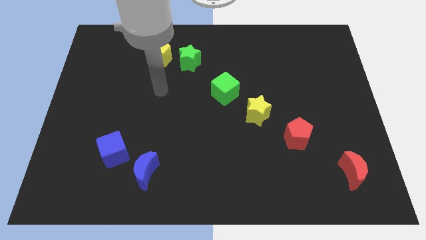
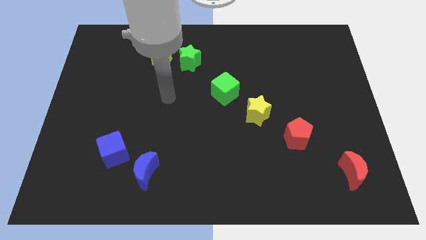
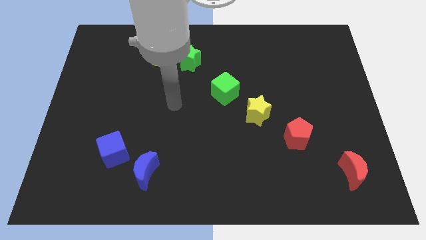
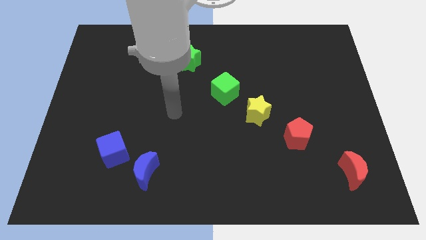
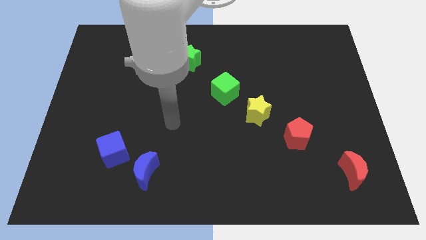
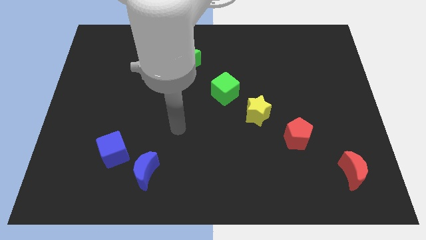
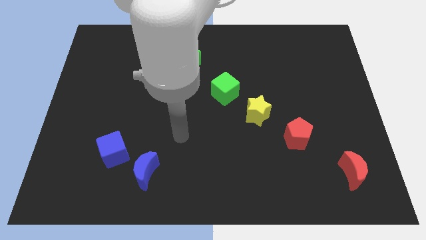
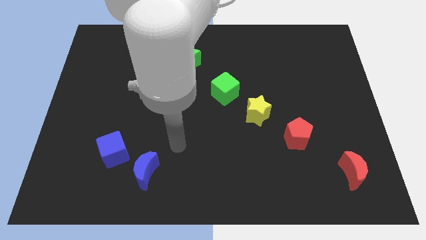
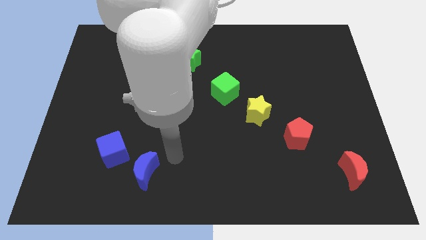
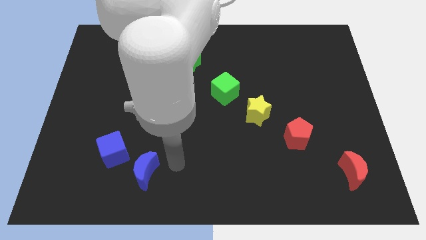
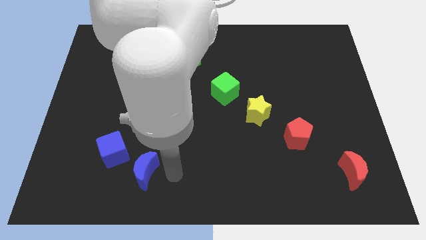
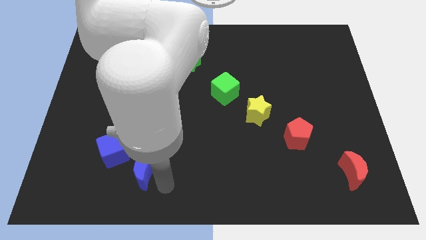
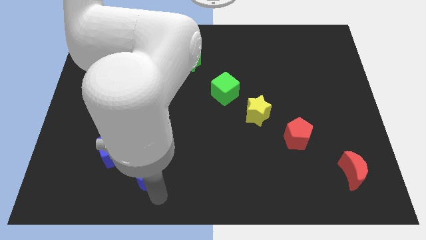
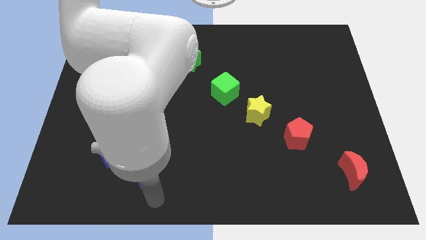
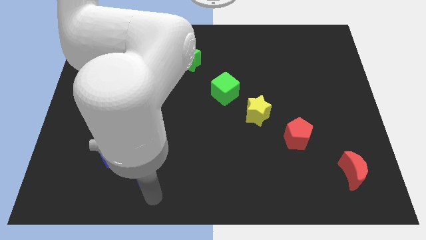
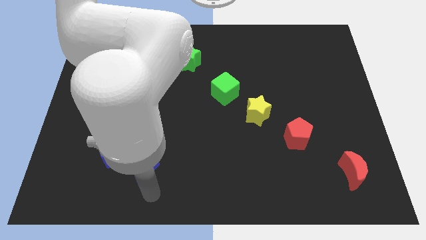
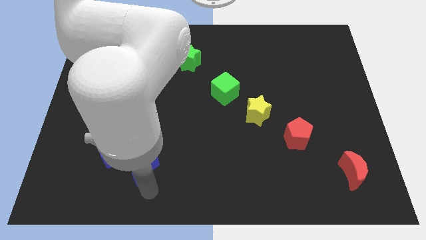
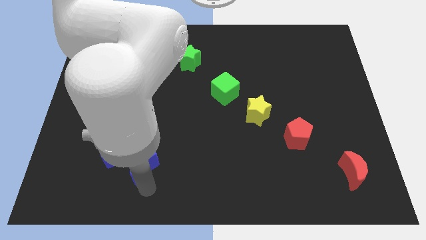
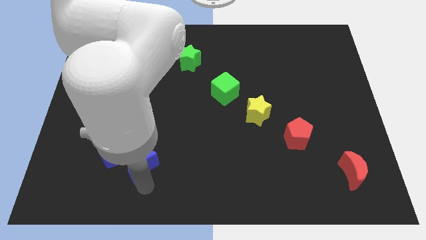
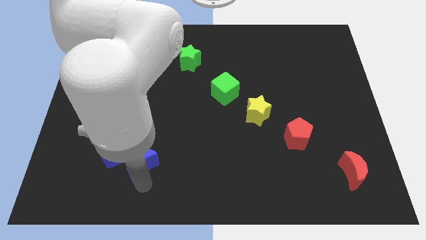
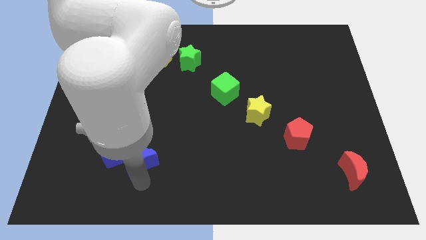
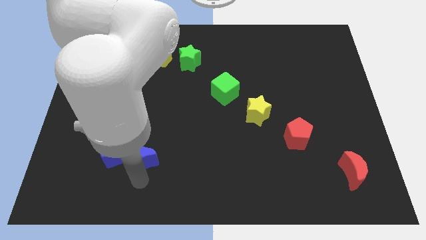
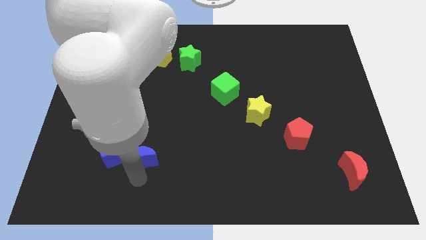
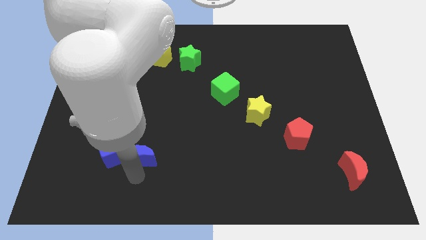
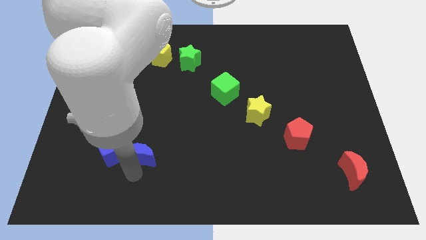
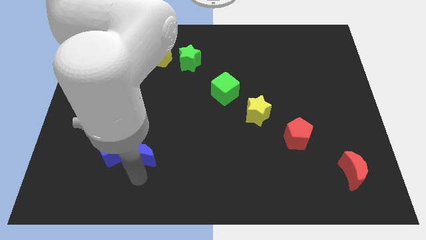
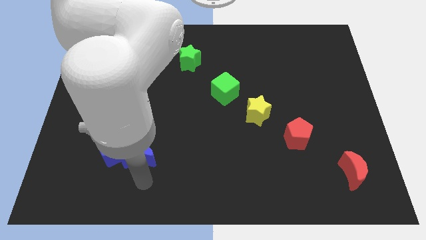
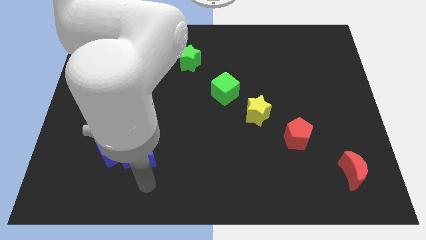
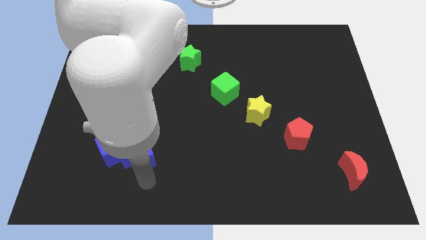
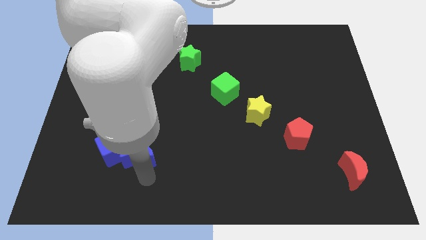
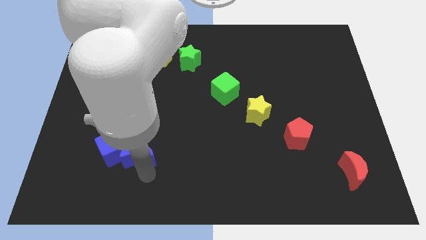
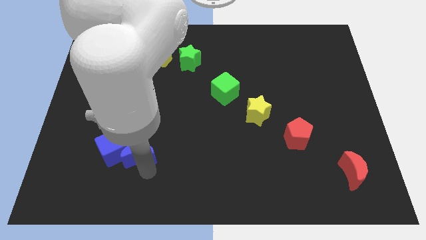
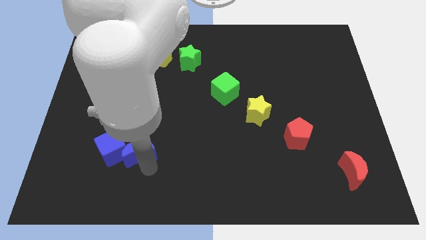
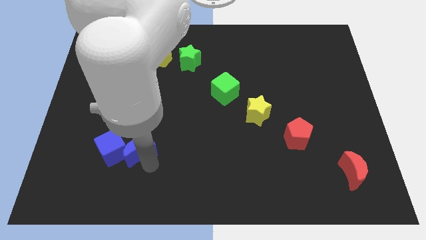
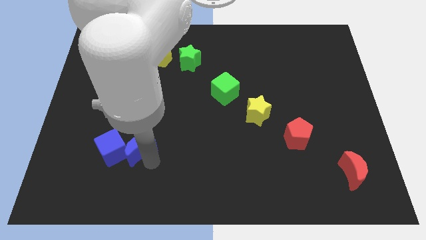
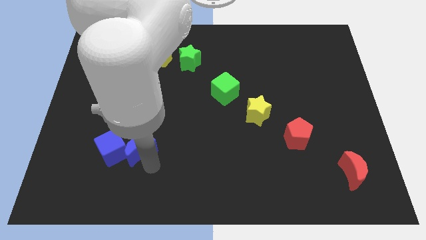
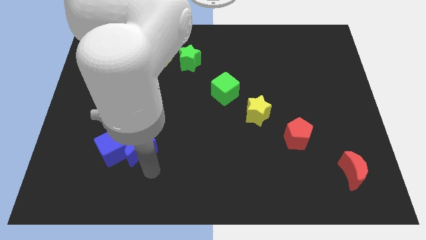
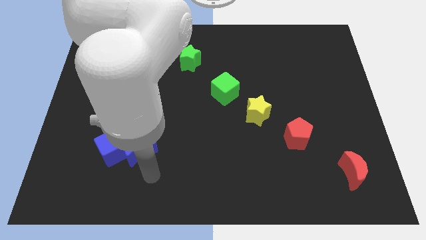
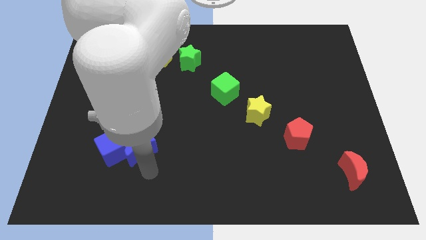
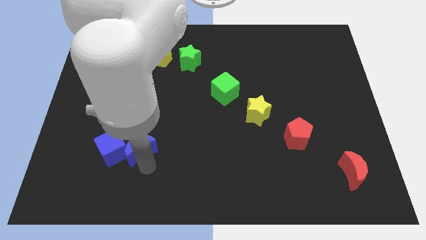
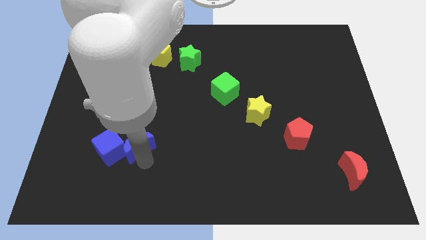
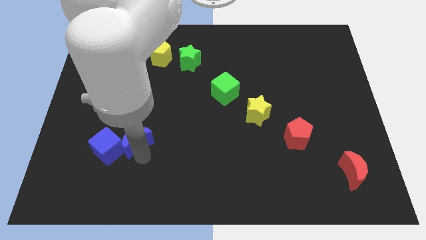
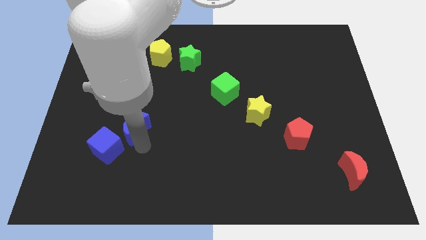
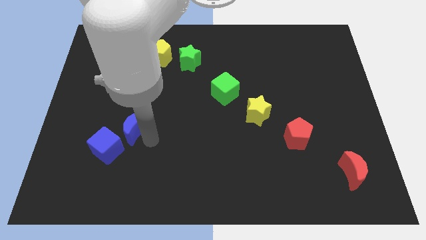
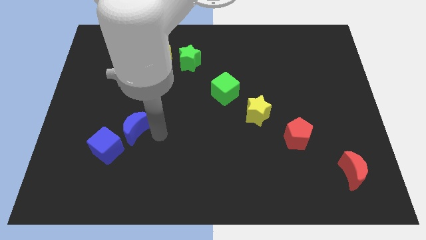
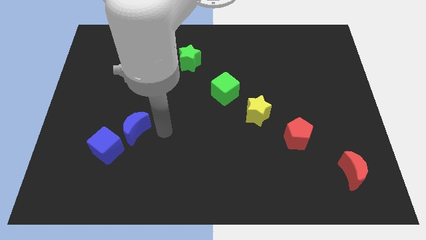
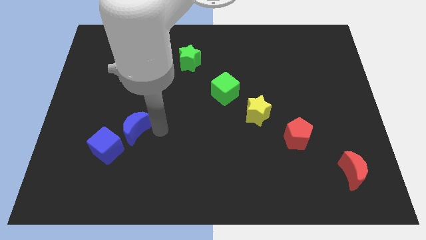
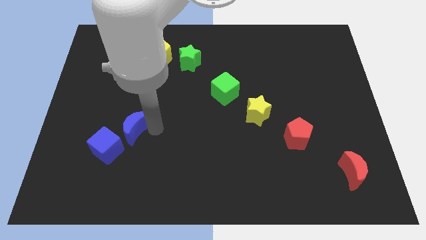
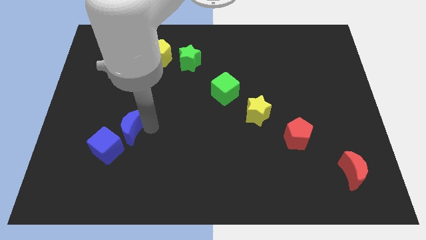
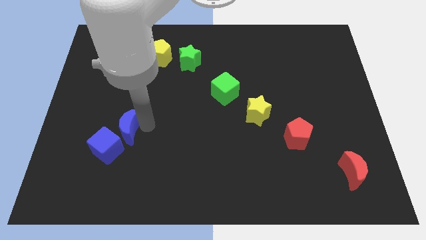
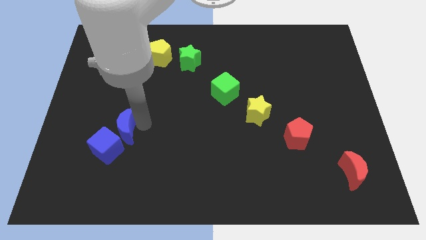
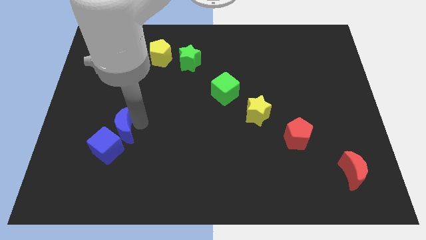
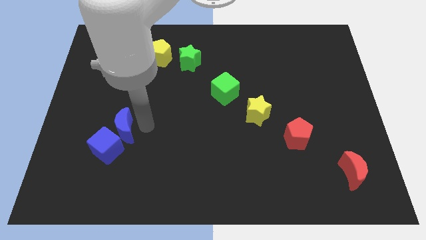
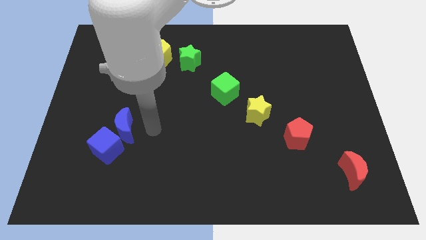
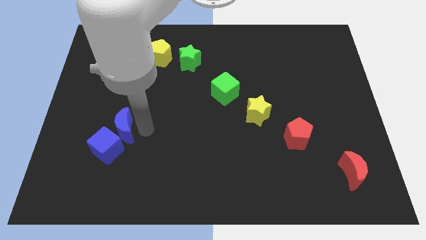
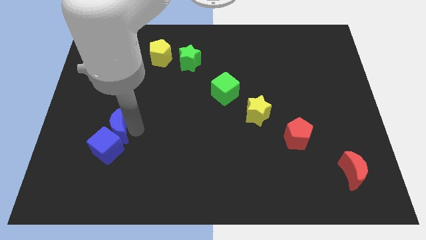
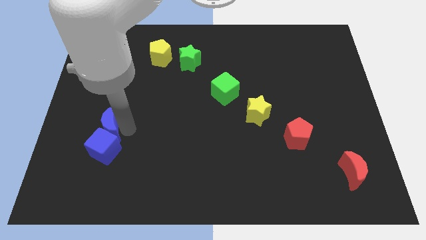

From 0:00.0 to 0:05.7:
push the blue moon to the top left of the blue cube
